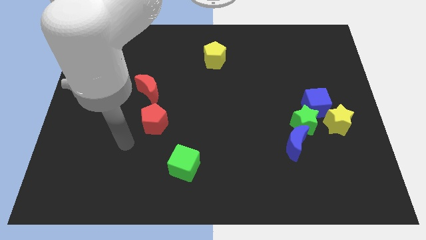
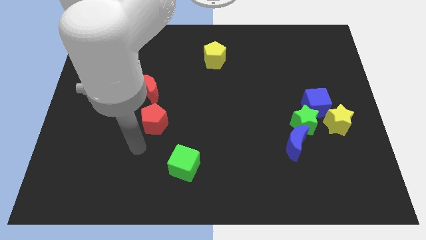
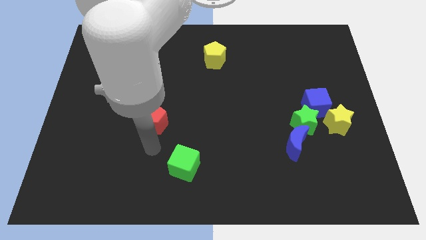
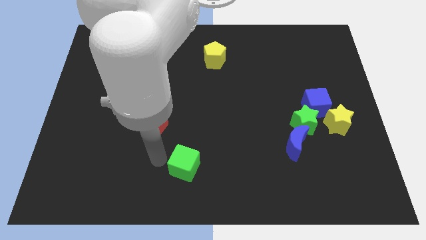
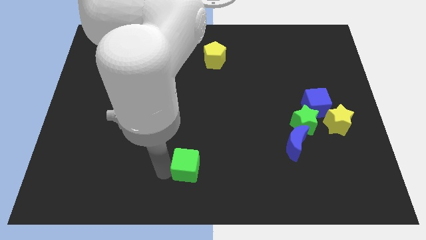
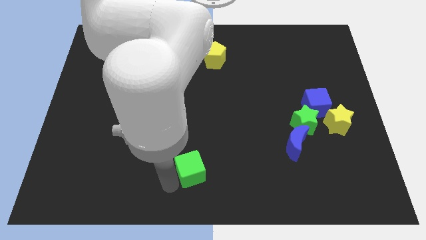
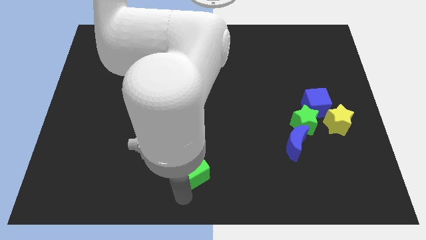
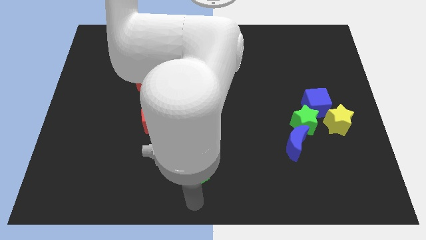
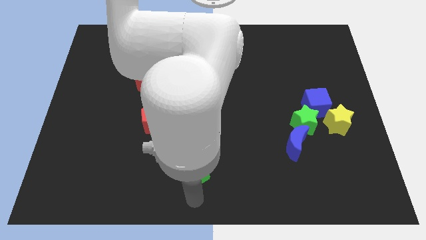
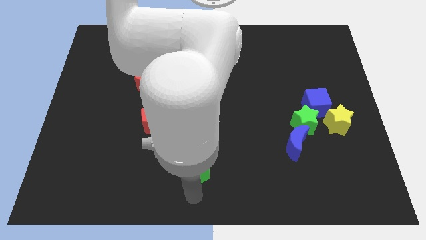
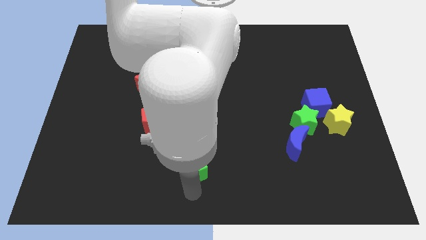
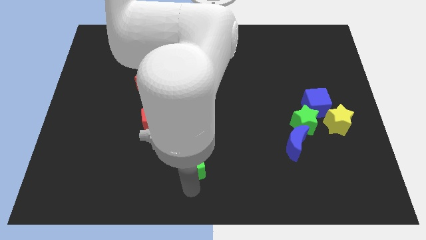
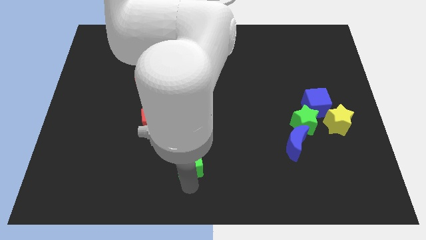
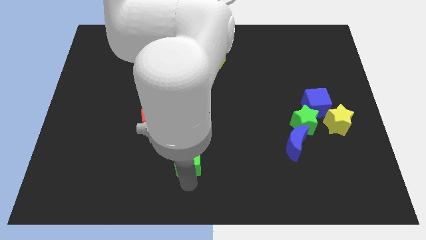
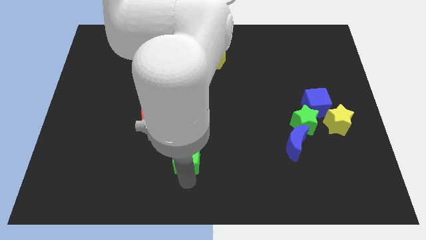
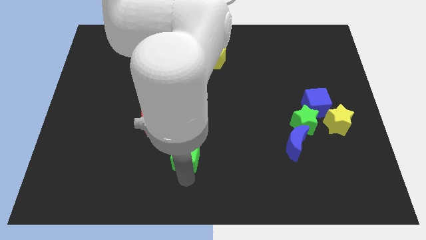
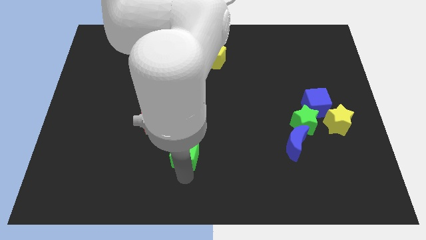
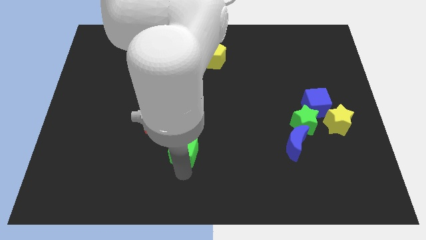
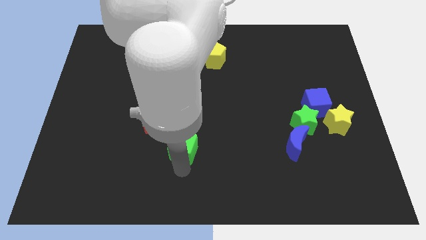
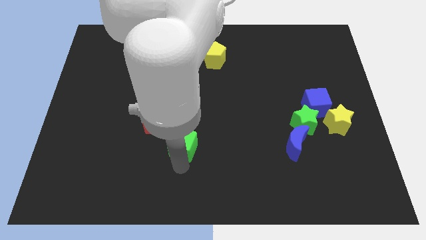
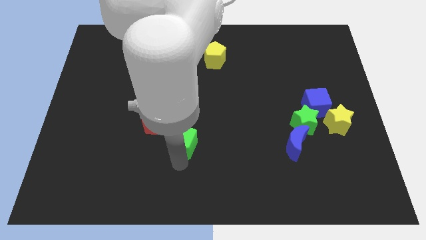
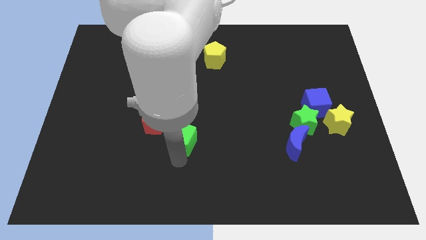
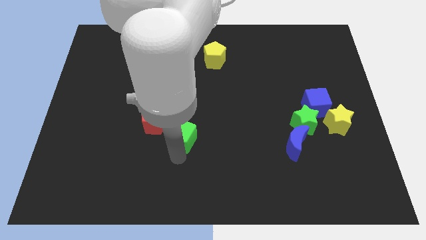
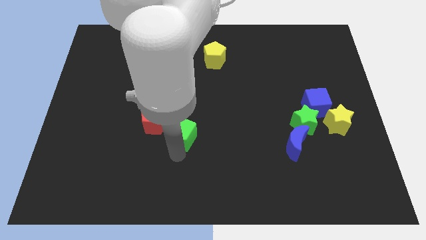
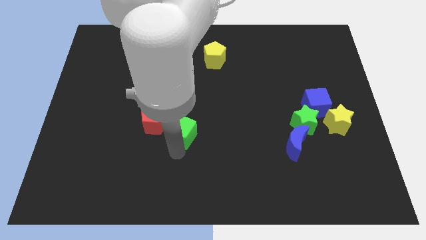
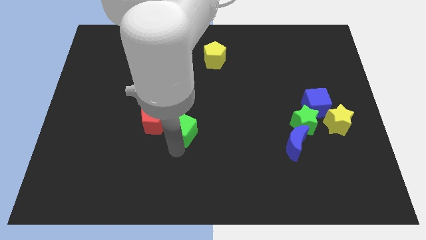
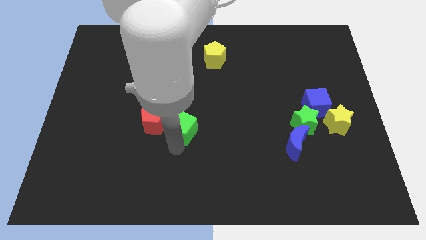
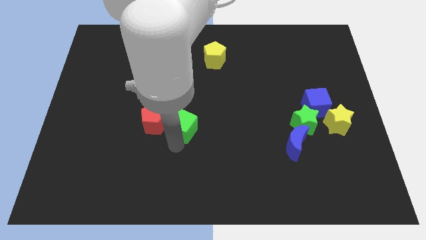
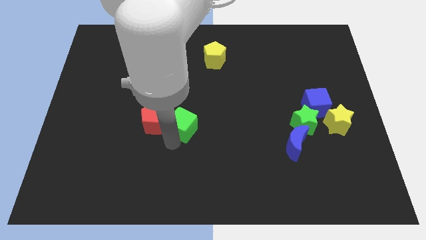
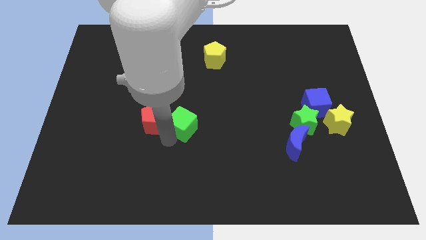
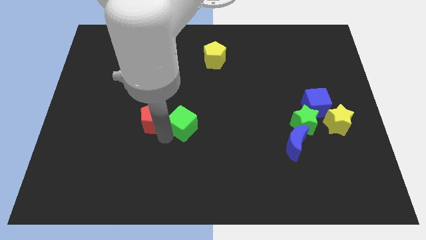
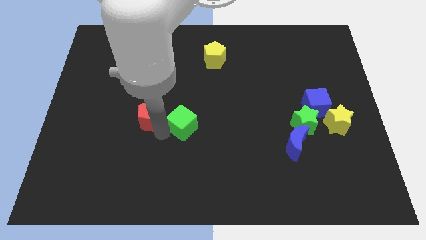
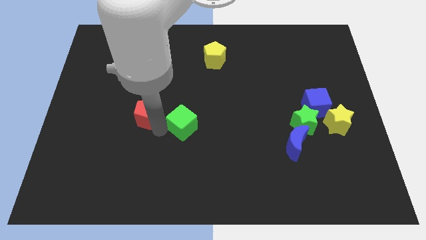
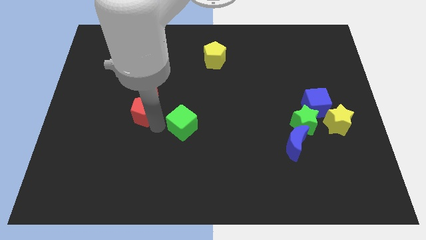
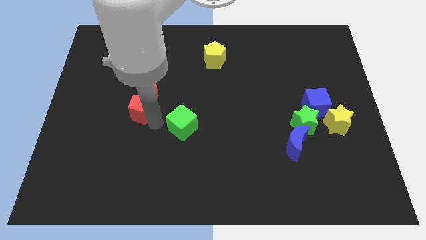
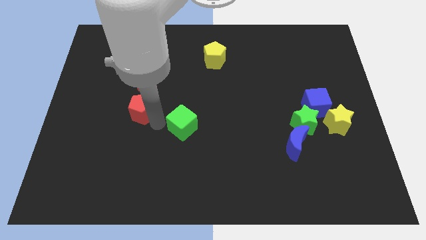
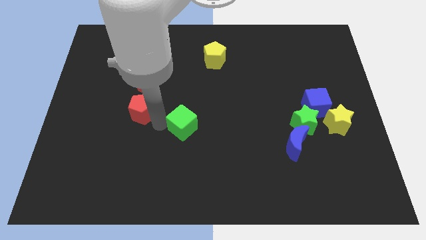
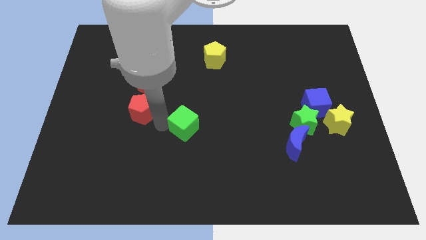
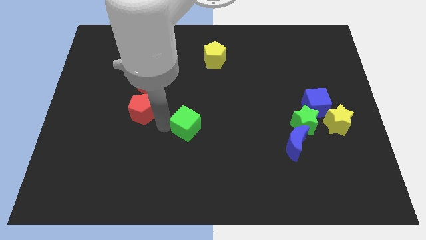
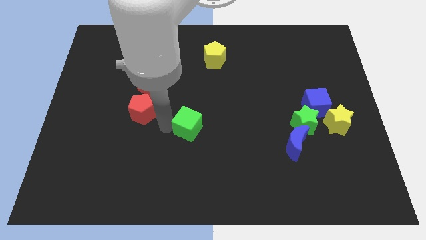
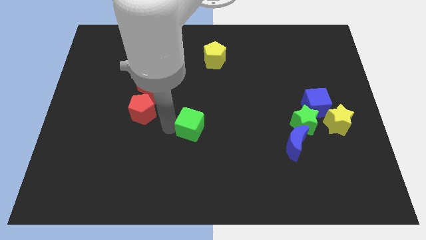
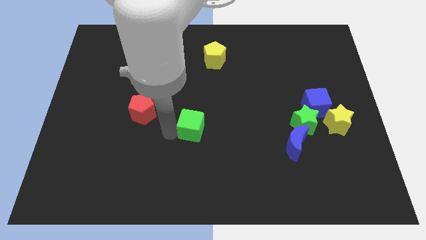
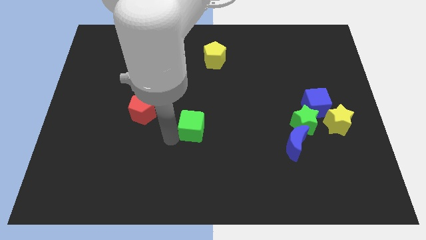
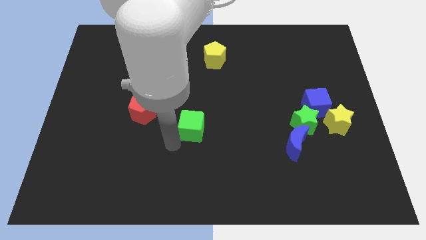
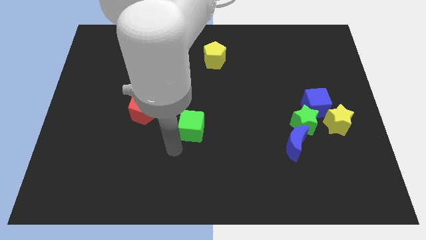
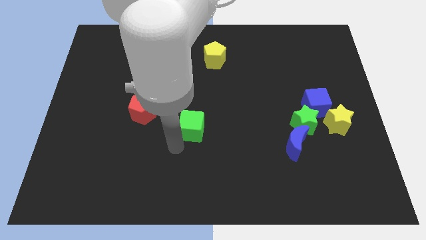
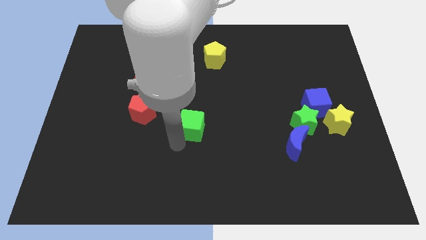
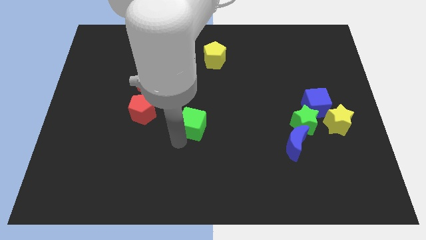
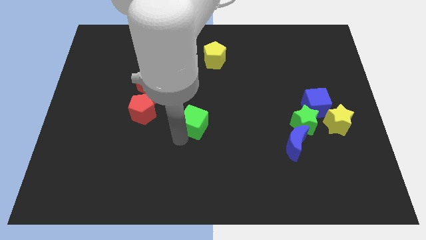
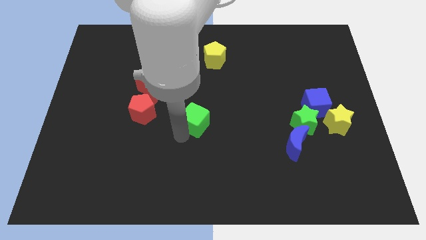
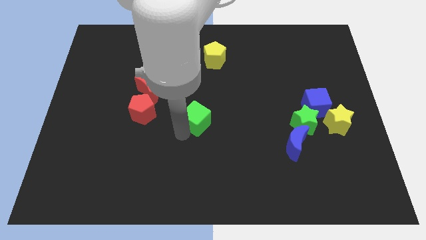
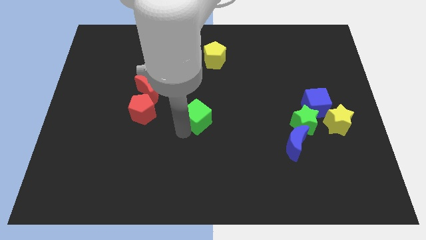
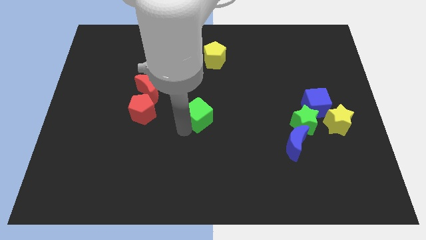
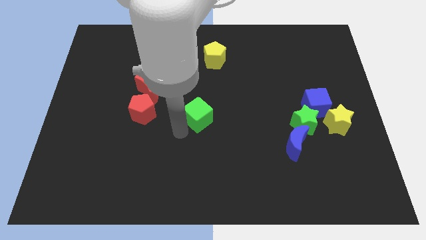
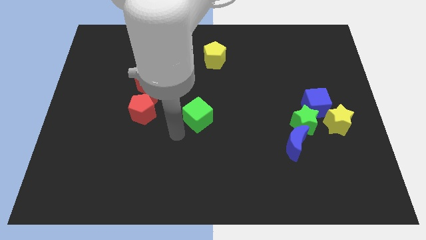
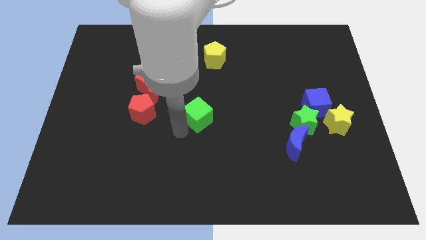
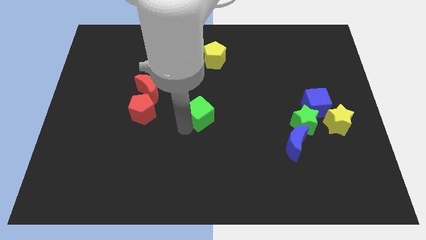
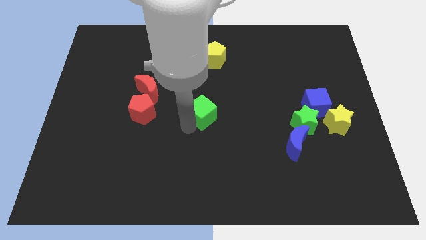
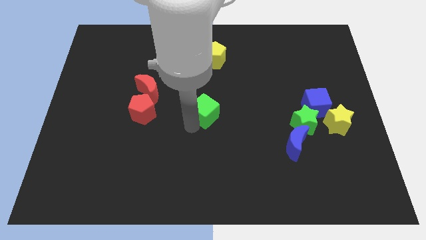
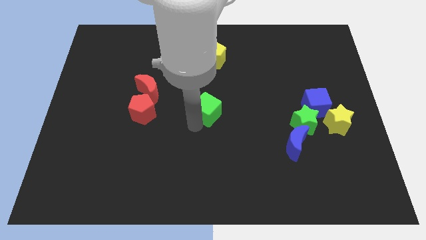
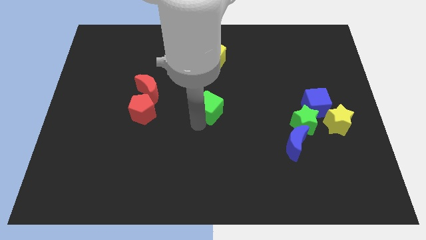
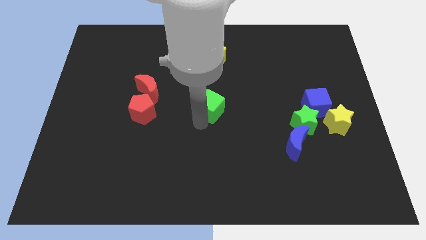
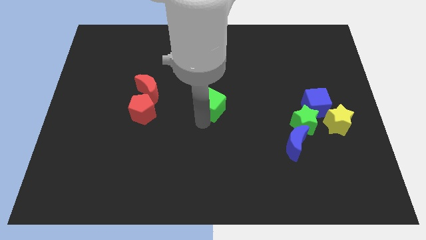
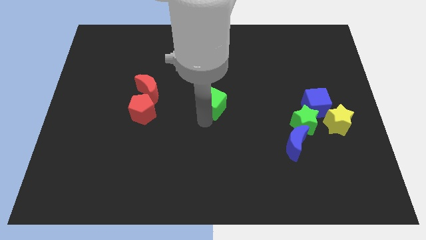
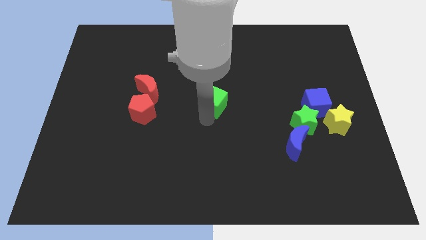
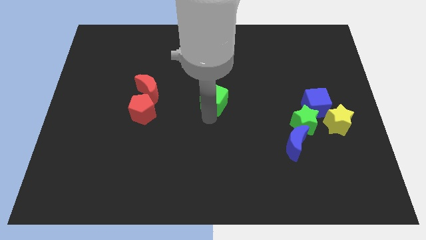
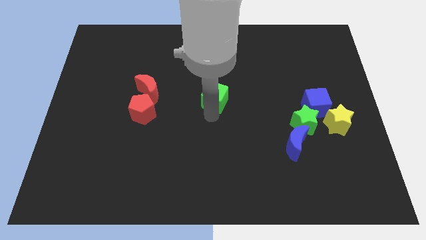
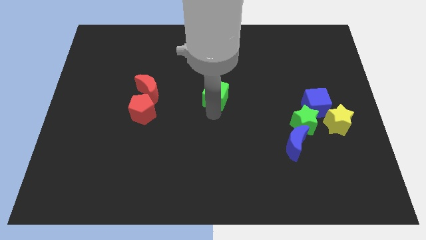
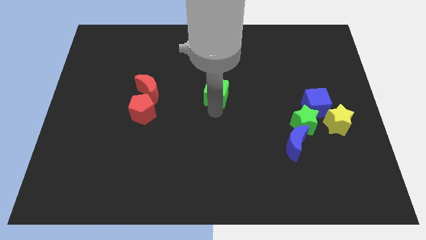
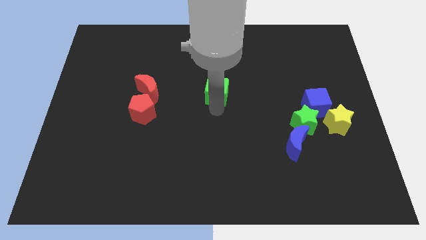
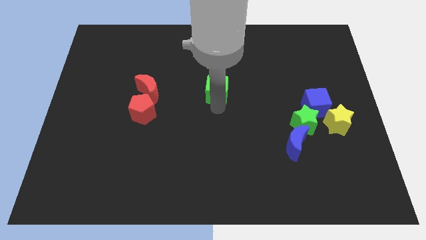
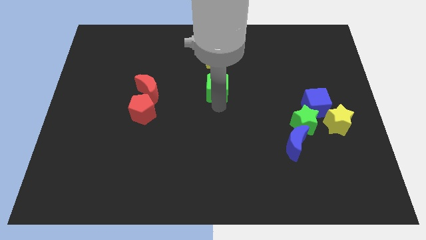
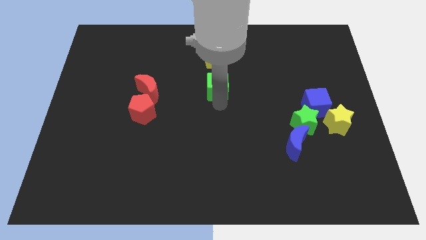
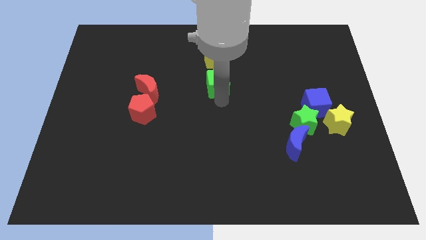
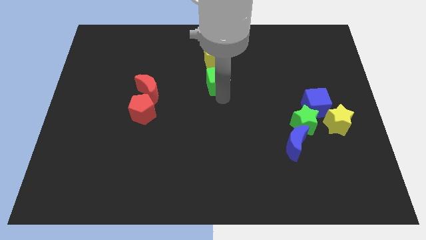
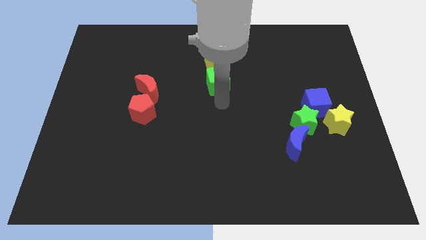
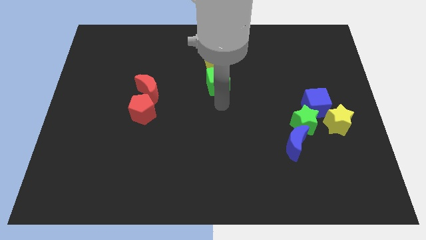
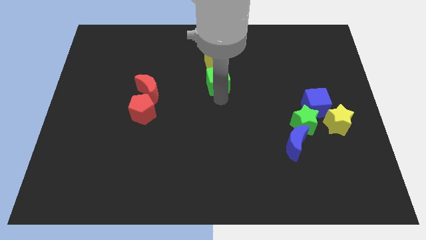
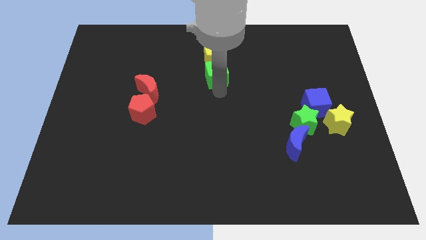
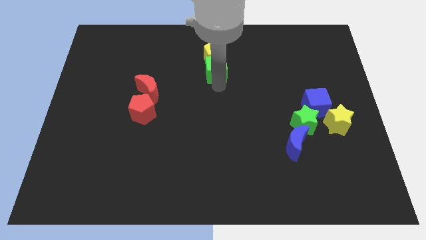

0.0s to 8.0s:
push the green cube close to the yellow pentagon
